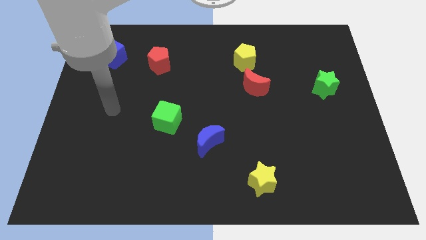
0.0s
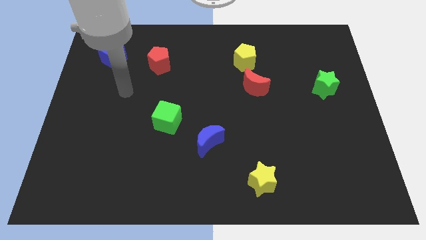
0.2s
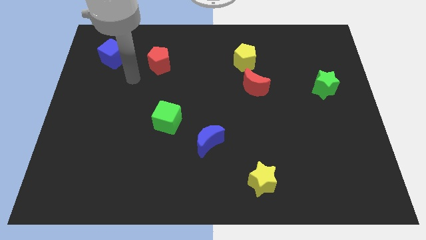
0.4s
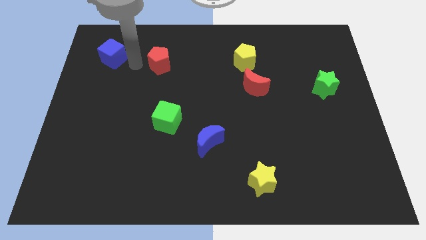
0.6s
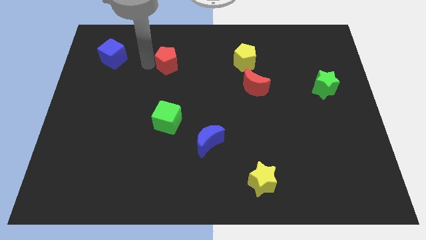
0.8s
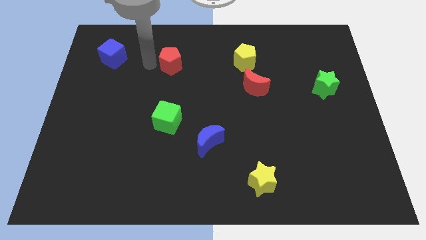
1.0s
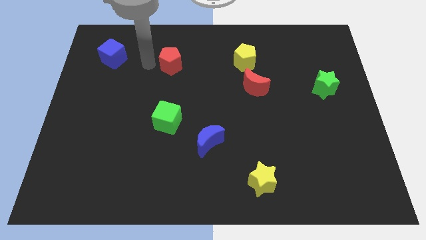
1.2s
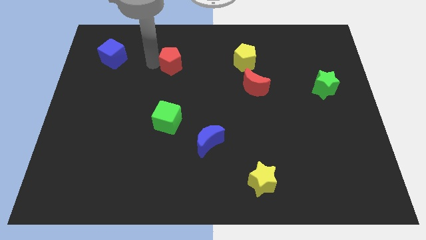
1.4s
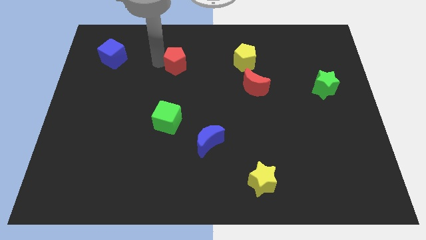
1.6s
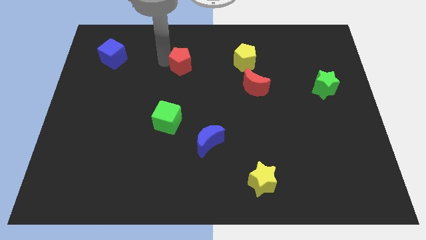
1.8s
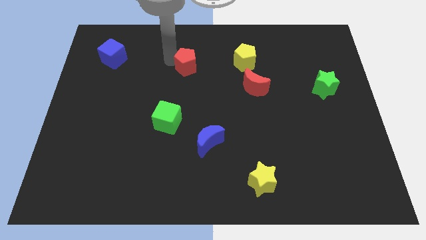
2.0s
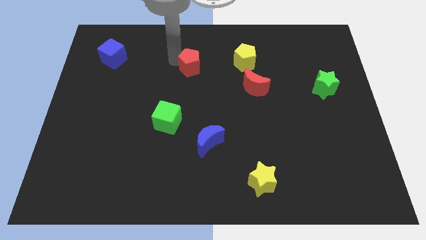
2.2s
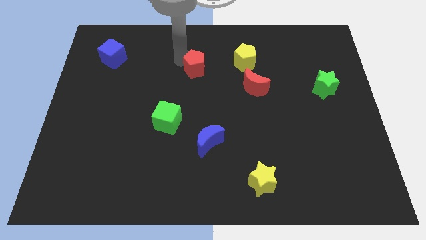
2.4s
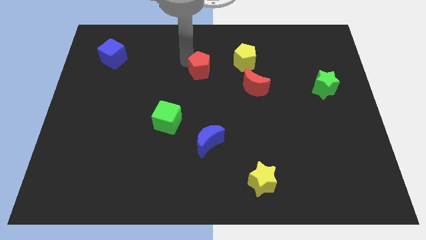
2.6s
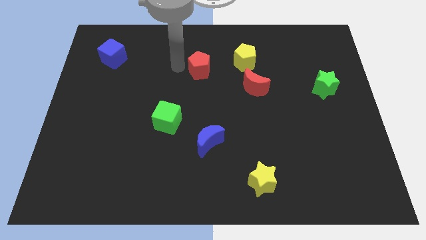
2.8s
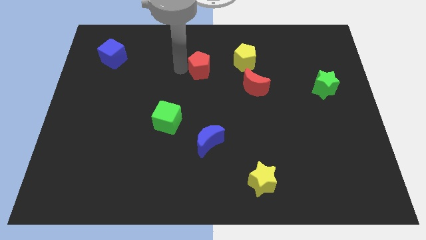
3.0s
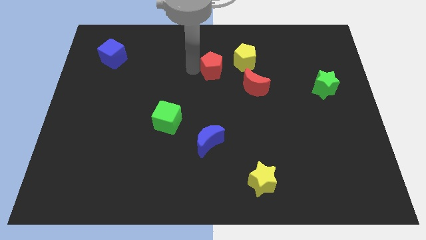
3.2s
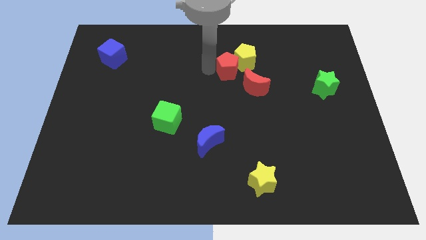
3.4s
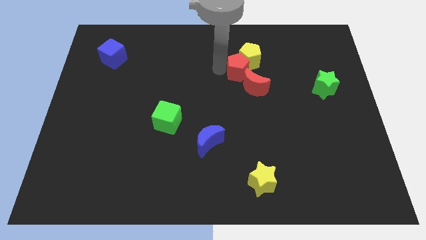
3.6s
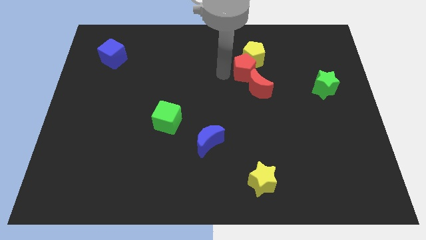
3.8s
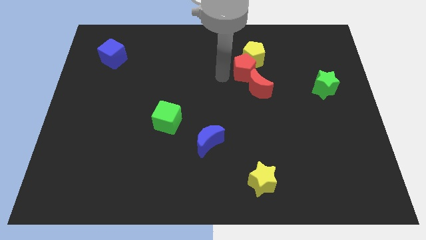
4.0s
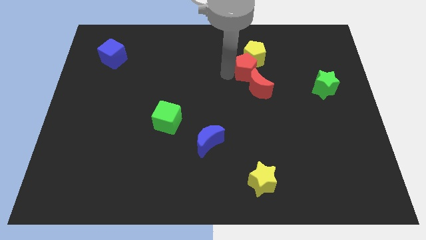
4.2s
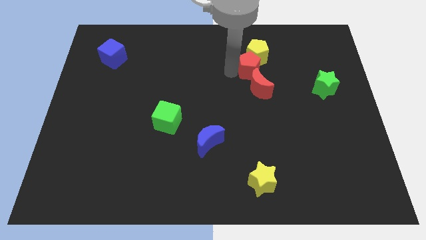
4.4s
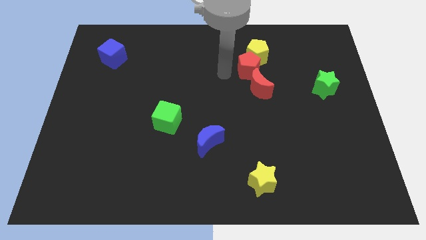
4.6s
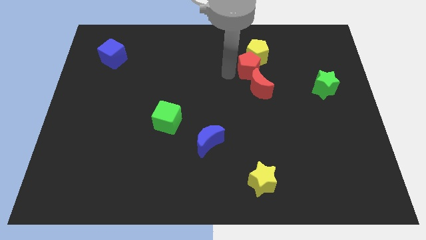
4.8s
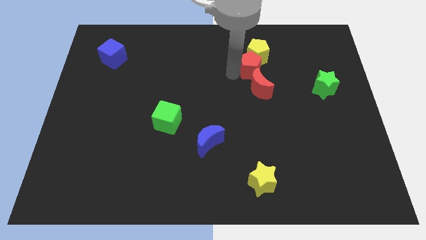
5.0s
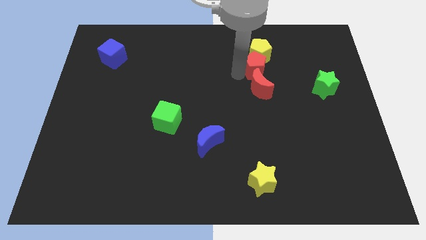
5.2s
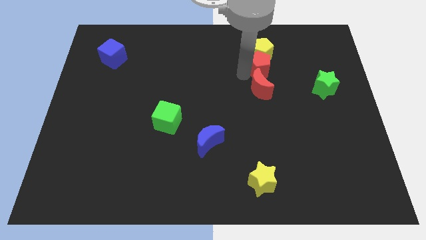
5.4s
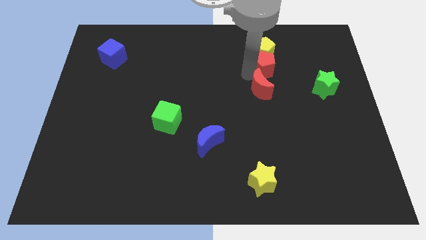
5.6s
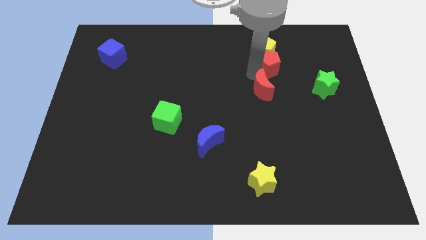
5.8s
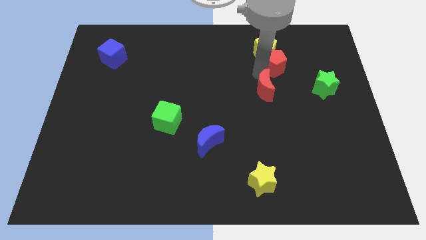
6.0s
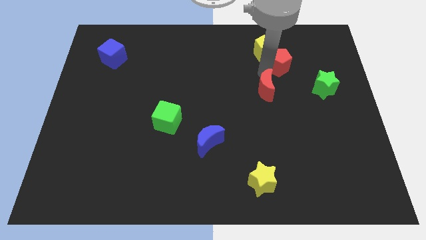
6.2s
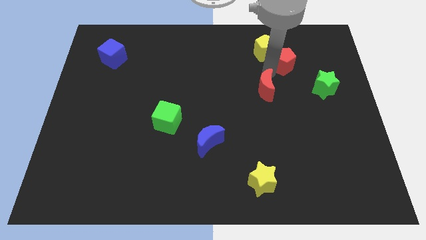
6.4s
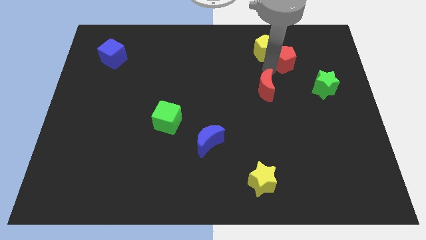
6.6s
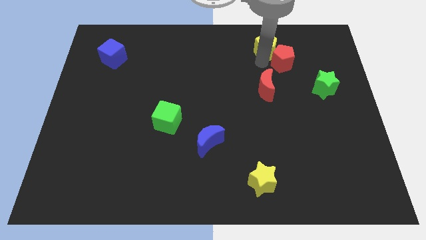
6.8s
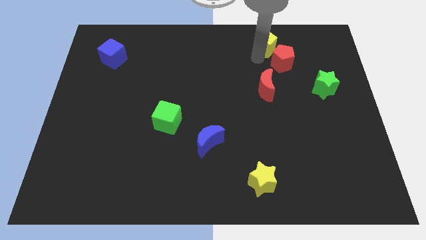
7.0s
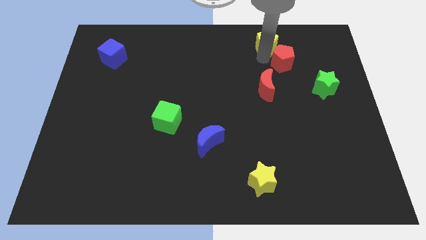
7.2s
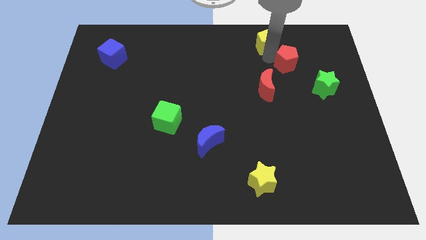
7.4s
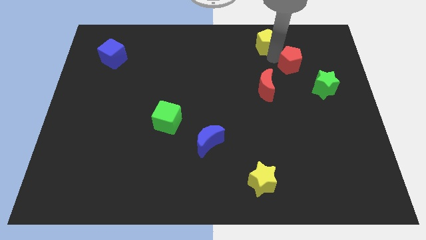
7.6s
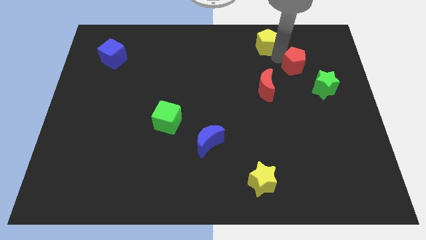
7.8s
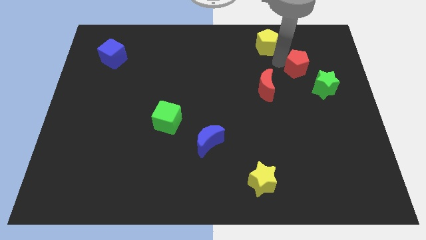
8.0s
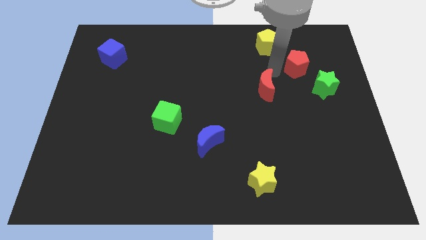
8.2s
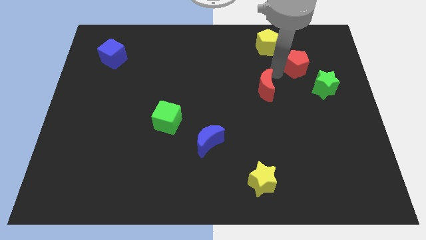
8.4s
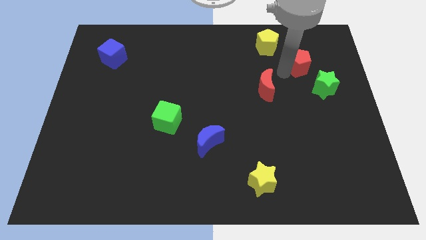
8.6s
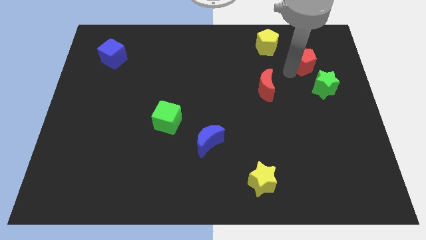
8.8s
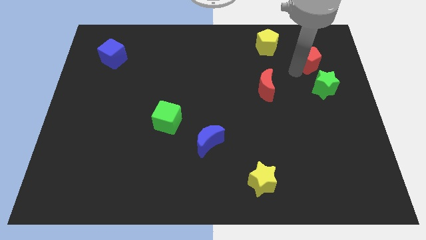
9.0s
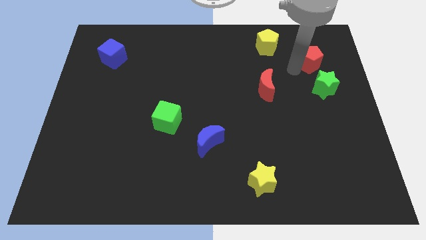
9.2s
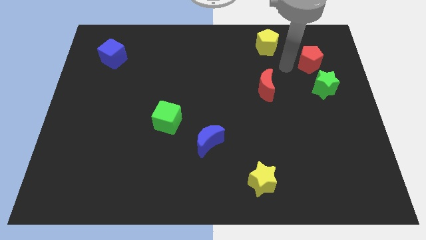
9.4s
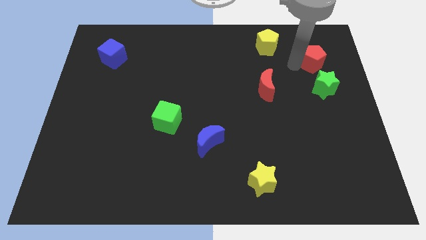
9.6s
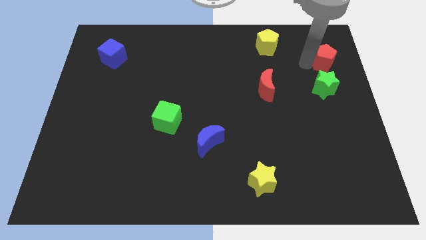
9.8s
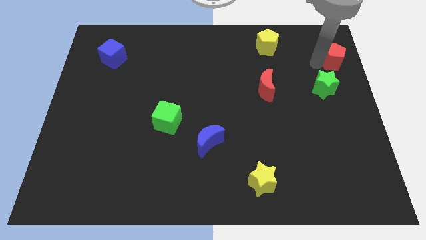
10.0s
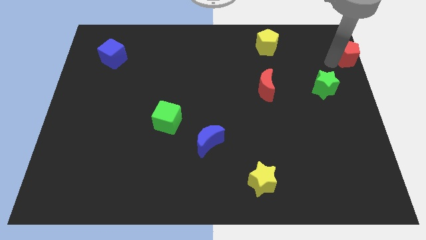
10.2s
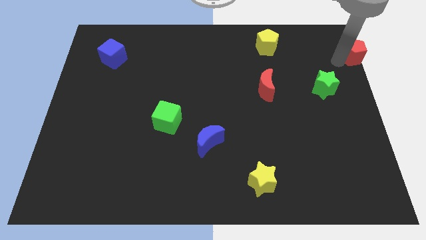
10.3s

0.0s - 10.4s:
put the red pentagon to the top right corner

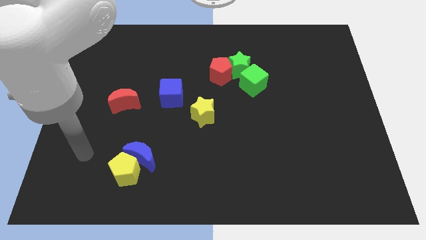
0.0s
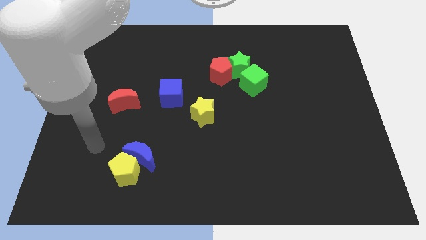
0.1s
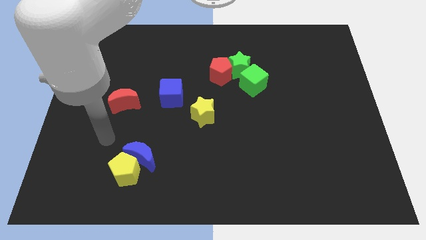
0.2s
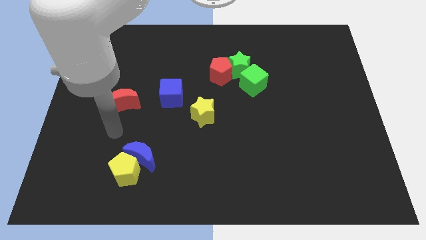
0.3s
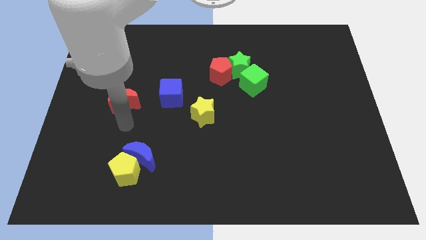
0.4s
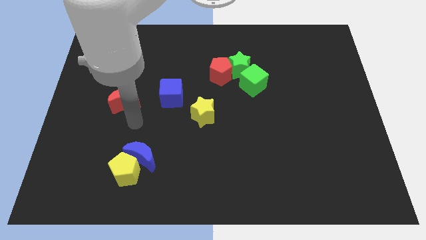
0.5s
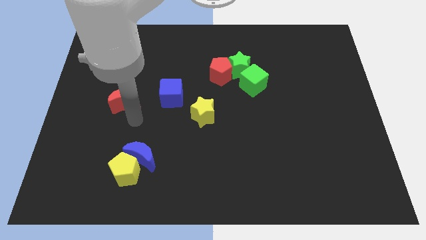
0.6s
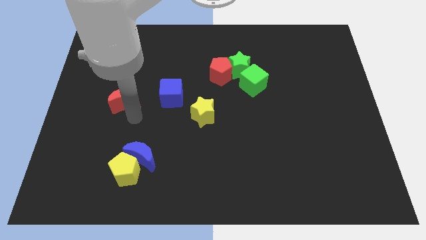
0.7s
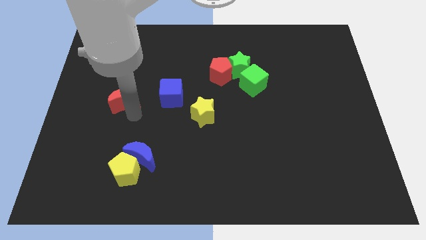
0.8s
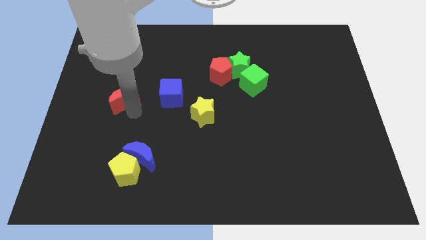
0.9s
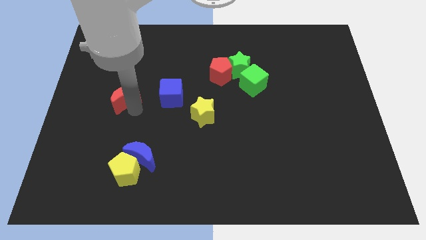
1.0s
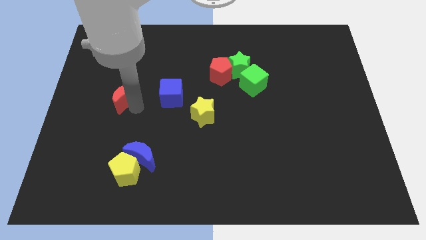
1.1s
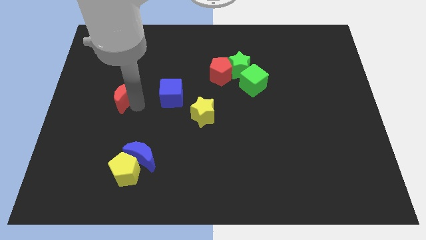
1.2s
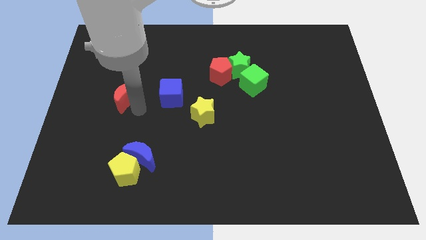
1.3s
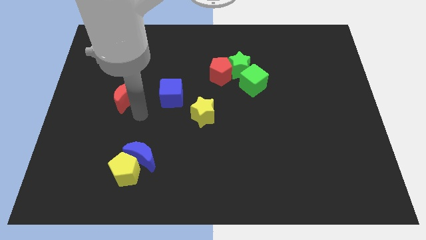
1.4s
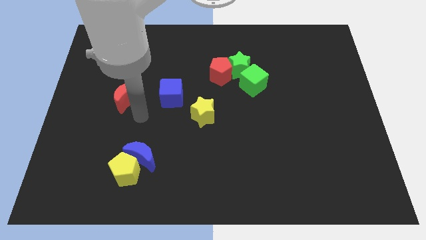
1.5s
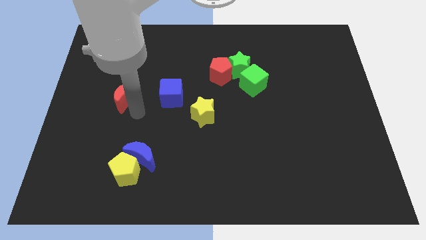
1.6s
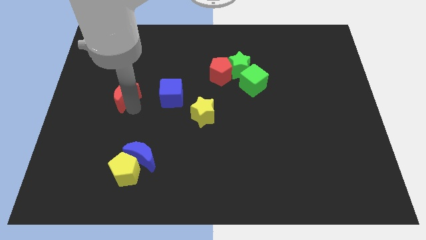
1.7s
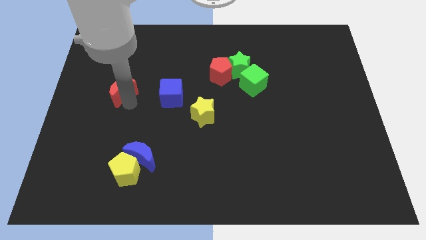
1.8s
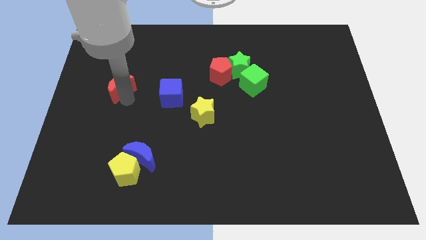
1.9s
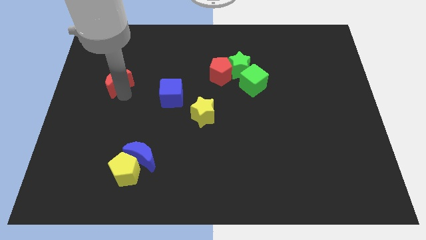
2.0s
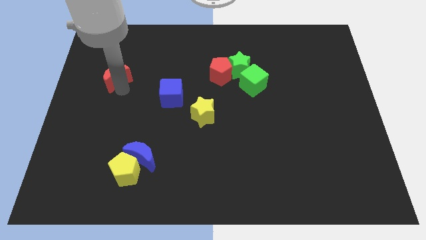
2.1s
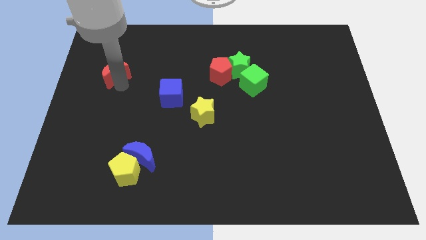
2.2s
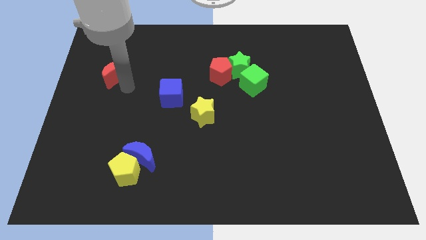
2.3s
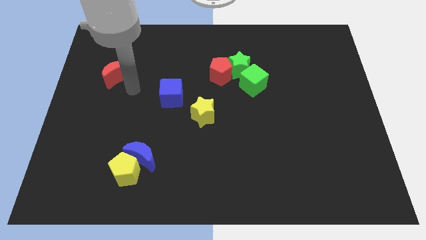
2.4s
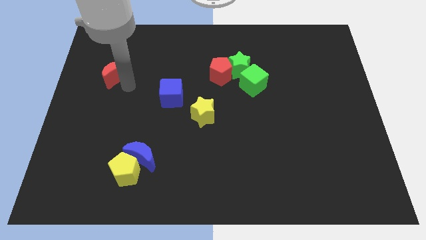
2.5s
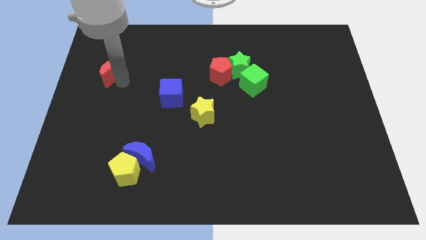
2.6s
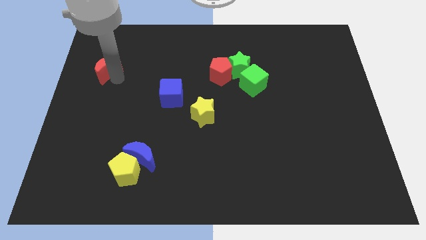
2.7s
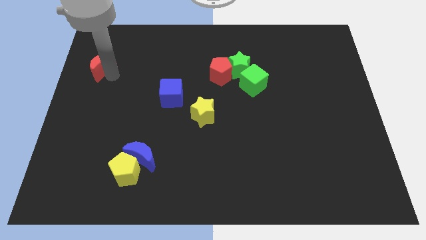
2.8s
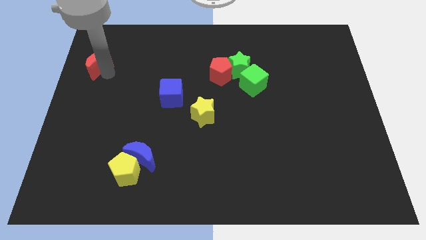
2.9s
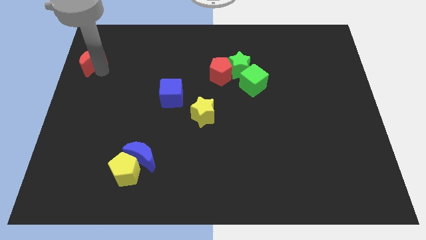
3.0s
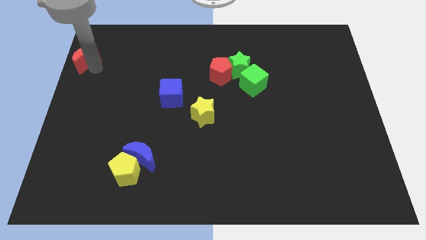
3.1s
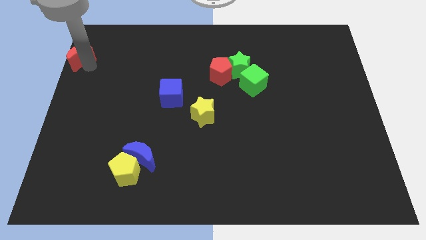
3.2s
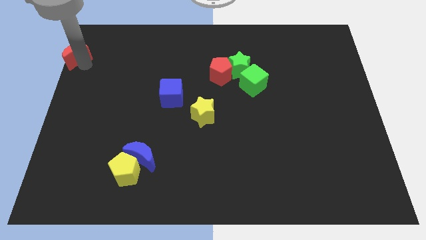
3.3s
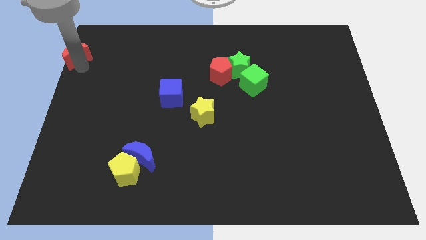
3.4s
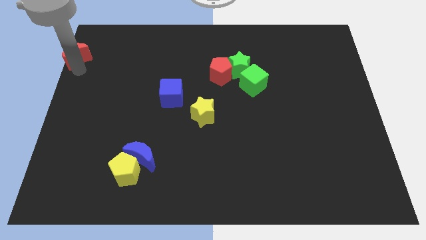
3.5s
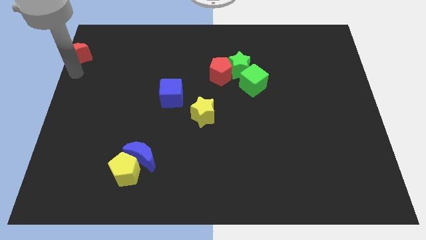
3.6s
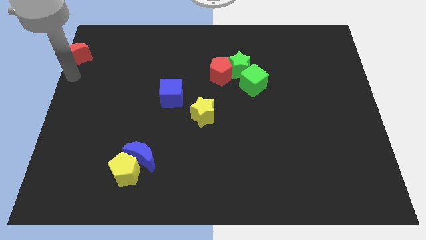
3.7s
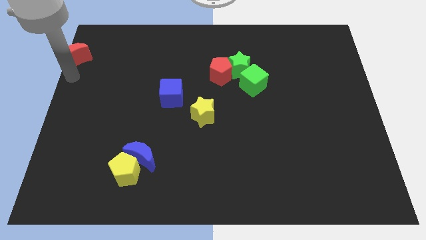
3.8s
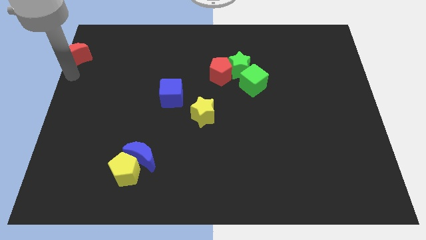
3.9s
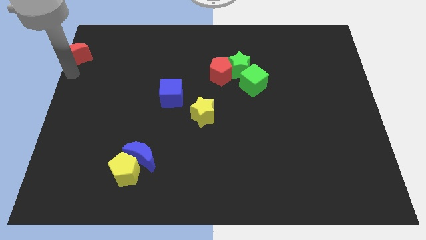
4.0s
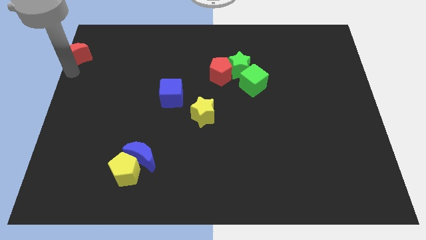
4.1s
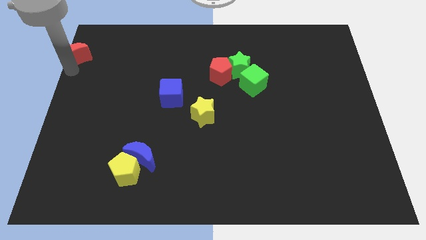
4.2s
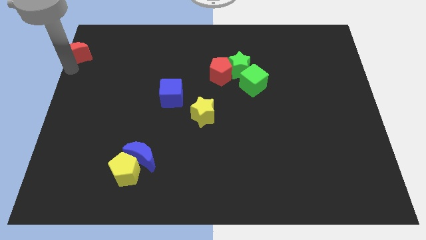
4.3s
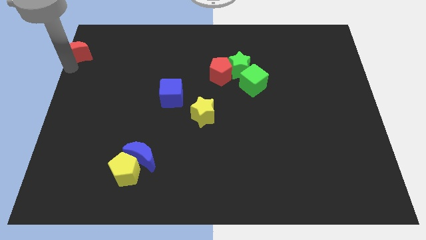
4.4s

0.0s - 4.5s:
move the red moon to the upper left corner
